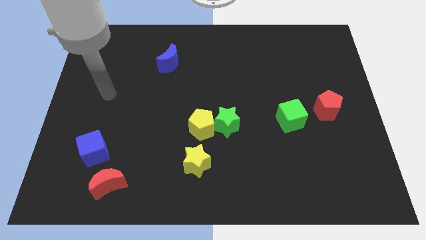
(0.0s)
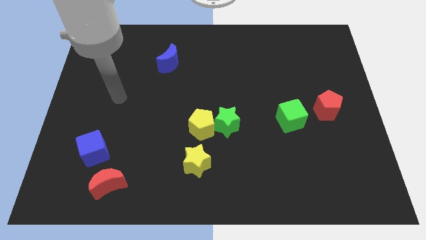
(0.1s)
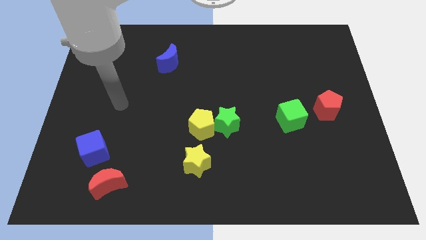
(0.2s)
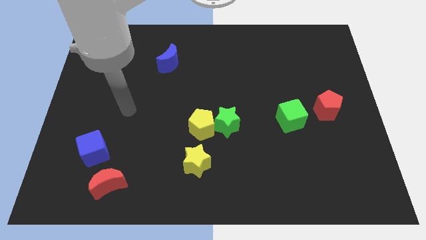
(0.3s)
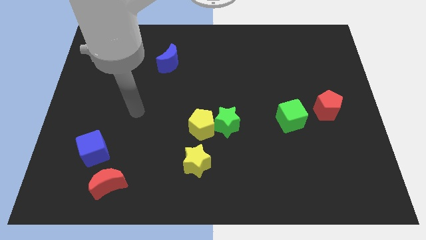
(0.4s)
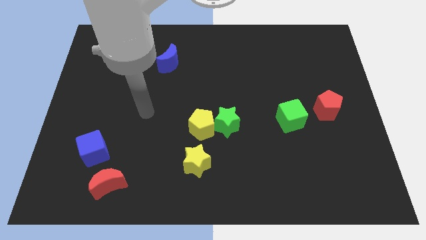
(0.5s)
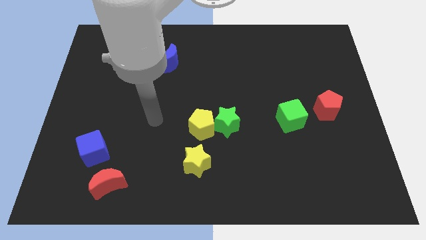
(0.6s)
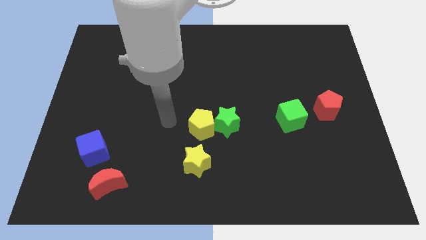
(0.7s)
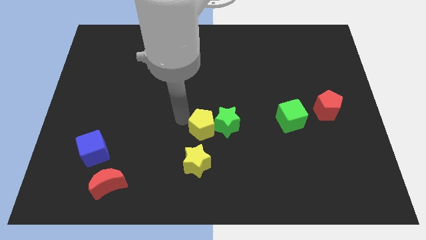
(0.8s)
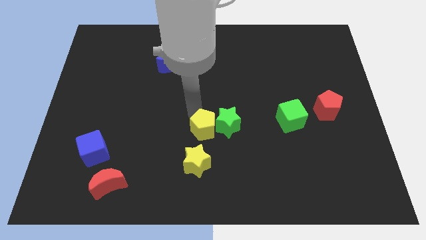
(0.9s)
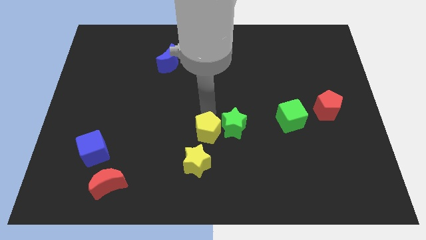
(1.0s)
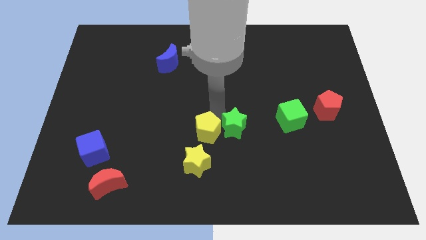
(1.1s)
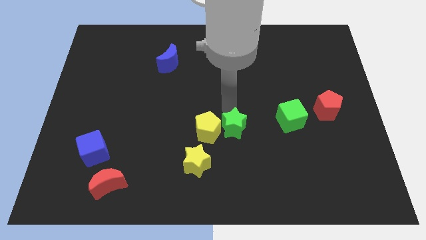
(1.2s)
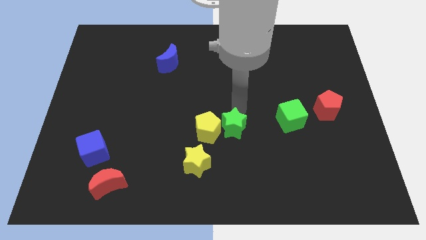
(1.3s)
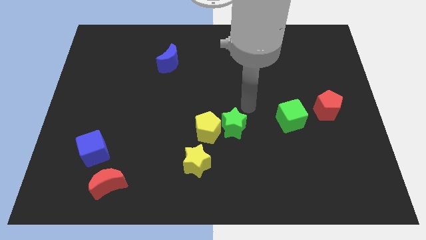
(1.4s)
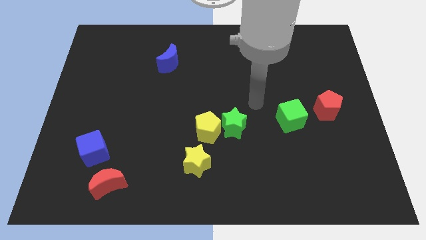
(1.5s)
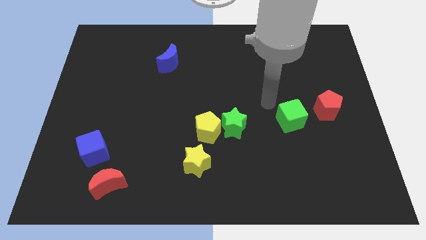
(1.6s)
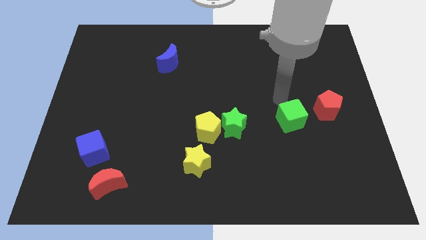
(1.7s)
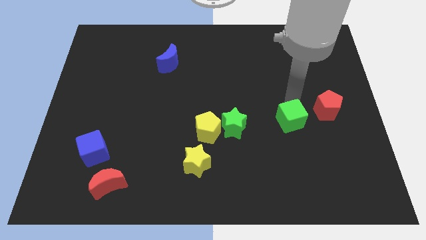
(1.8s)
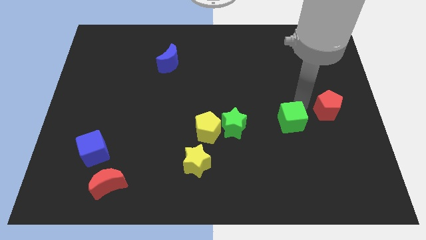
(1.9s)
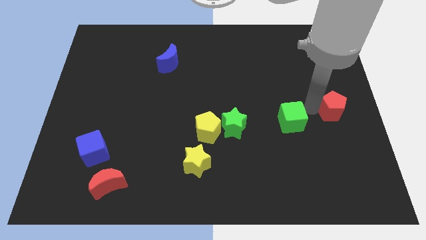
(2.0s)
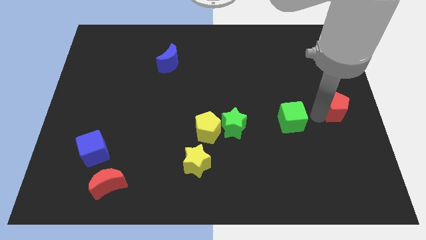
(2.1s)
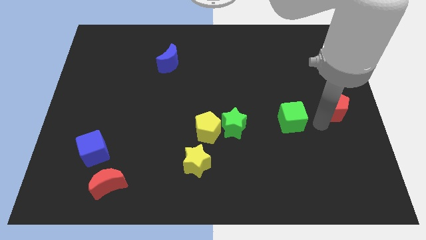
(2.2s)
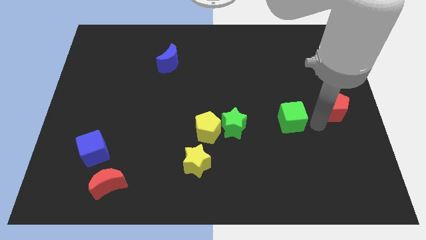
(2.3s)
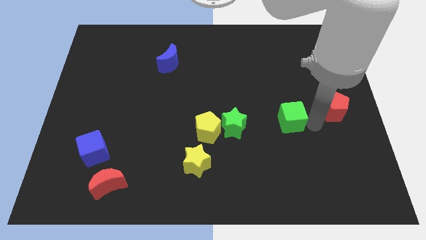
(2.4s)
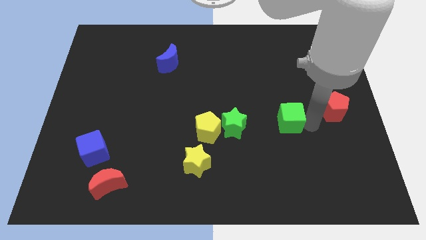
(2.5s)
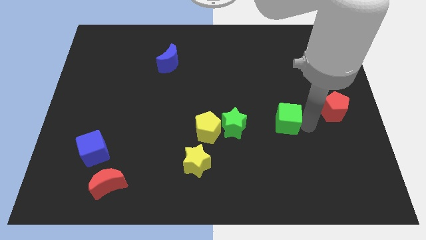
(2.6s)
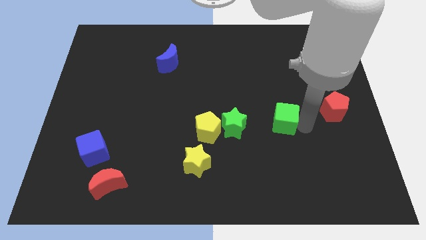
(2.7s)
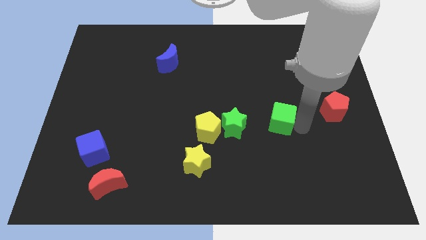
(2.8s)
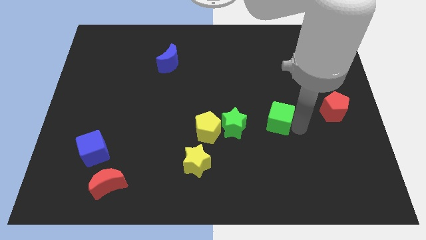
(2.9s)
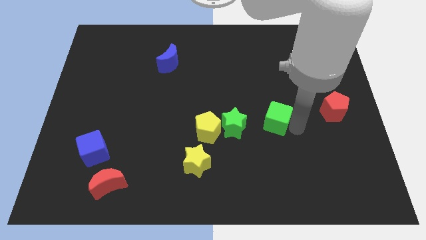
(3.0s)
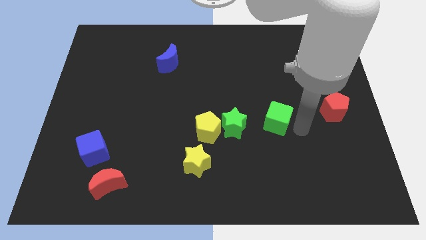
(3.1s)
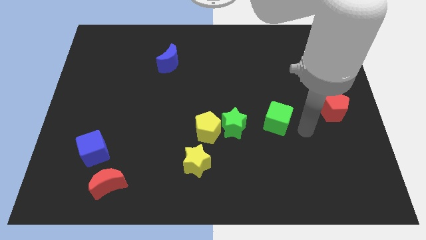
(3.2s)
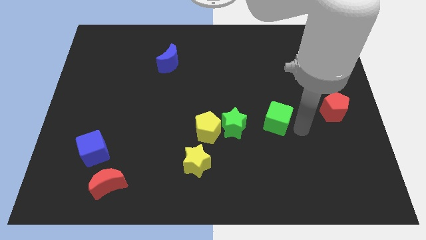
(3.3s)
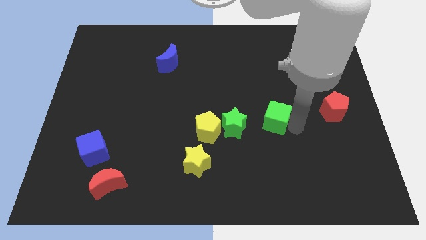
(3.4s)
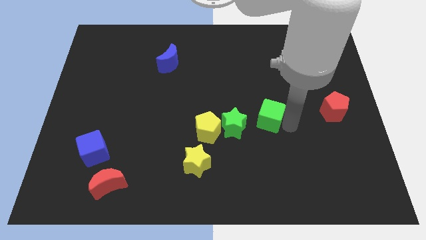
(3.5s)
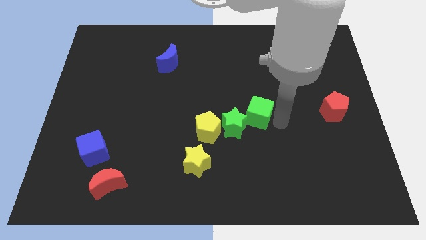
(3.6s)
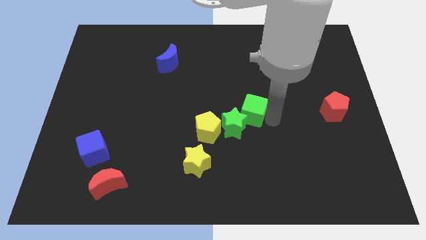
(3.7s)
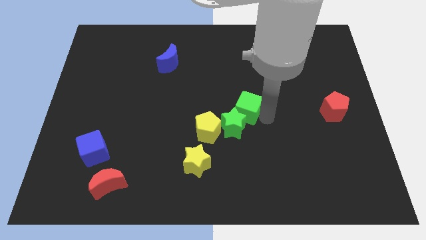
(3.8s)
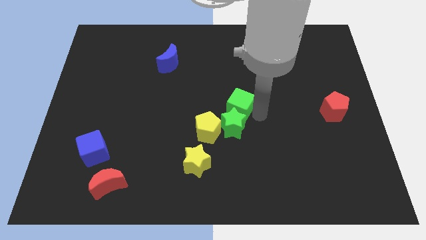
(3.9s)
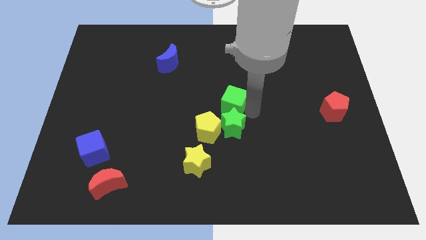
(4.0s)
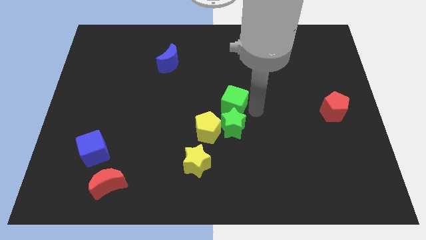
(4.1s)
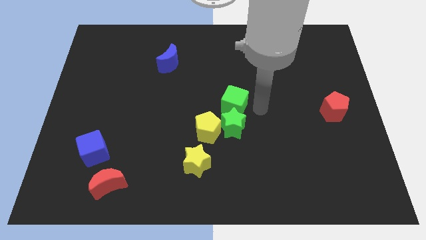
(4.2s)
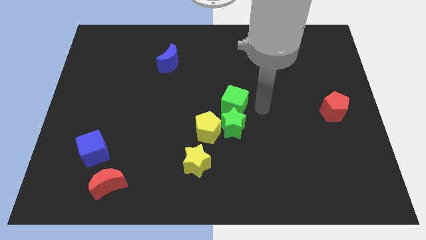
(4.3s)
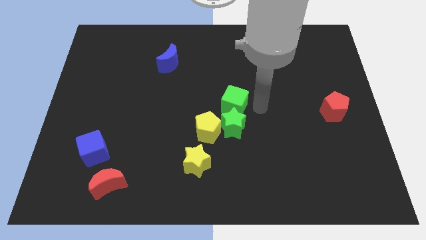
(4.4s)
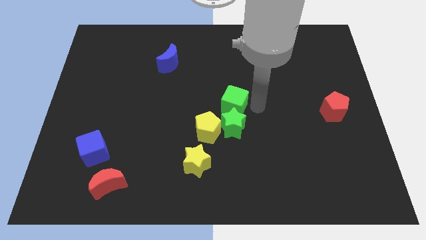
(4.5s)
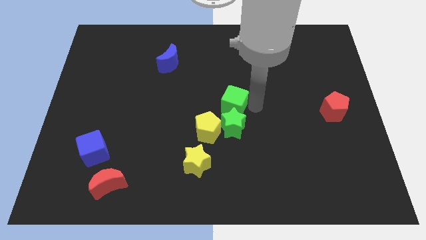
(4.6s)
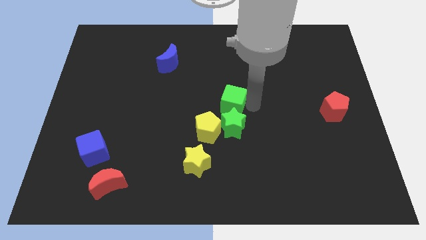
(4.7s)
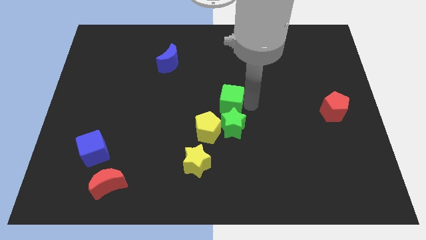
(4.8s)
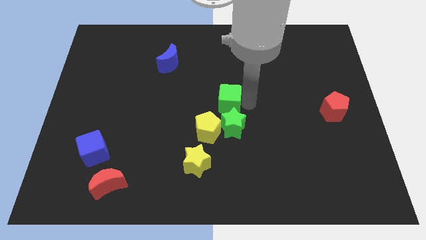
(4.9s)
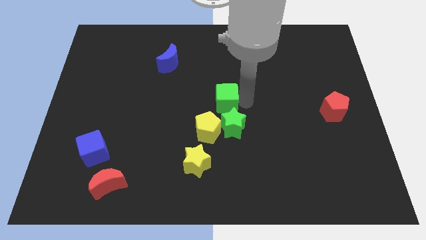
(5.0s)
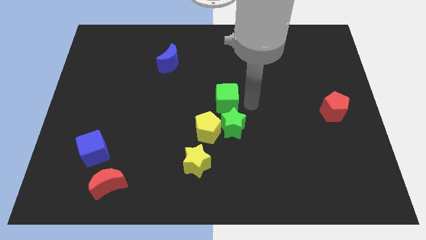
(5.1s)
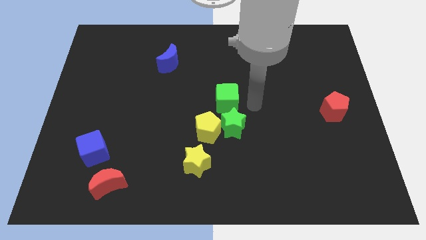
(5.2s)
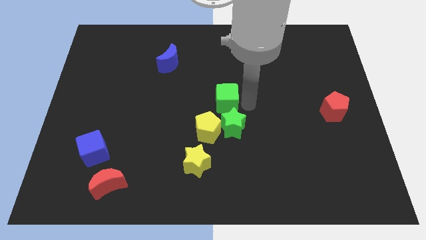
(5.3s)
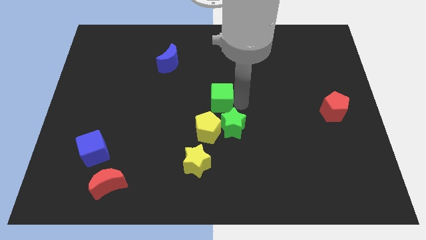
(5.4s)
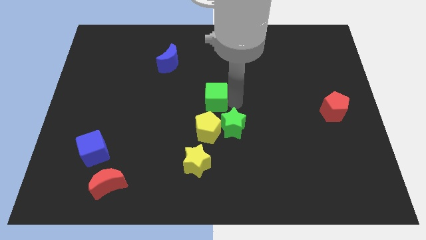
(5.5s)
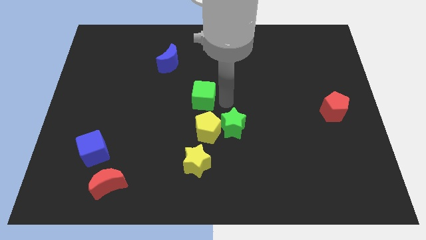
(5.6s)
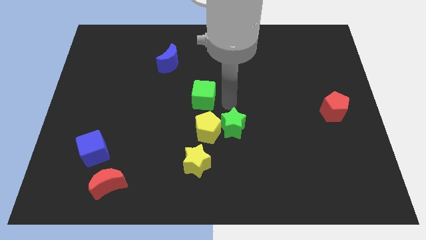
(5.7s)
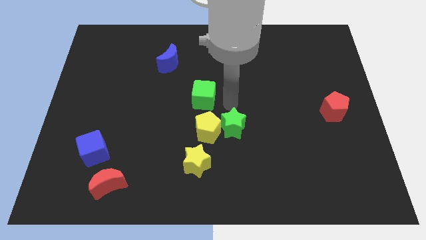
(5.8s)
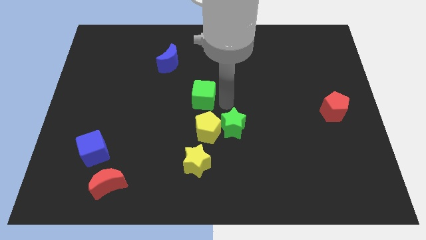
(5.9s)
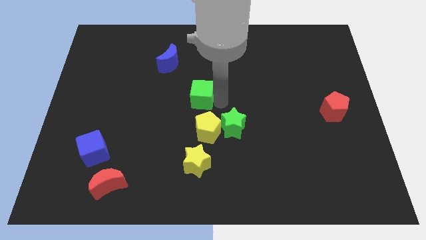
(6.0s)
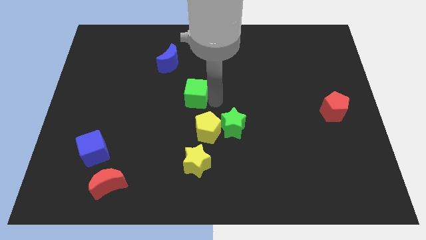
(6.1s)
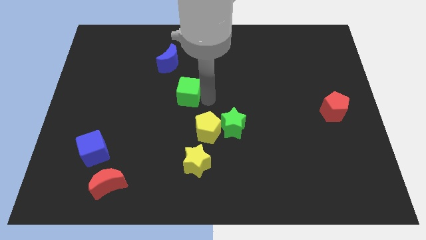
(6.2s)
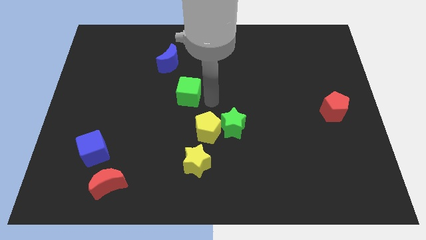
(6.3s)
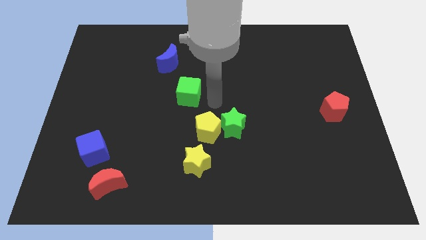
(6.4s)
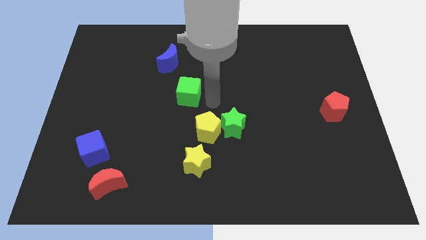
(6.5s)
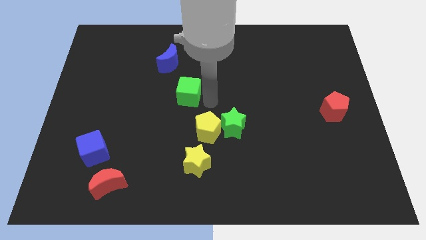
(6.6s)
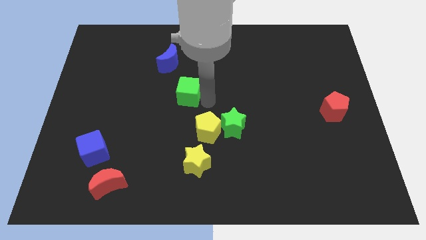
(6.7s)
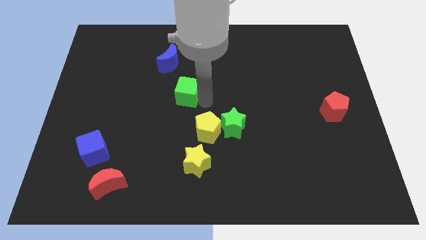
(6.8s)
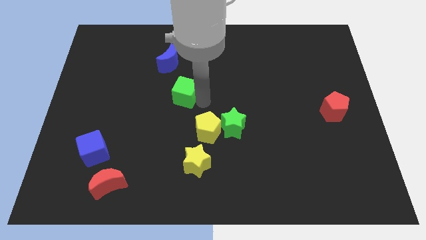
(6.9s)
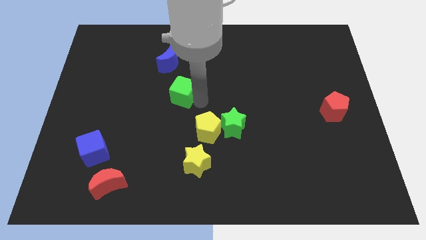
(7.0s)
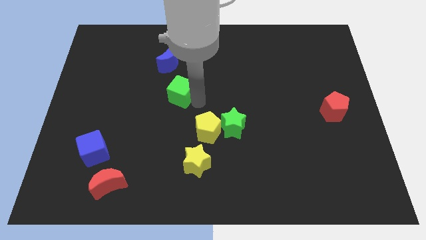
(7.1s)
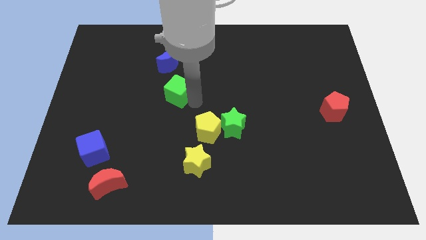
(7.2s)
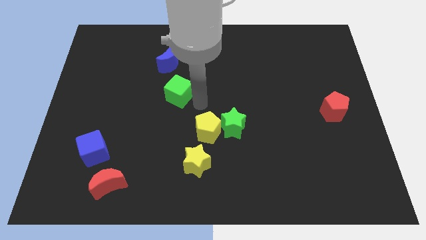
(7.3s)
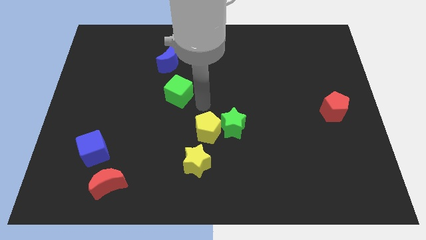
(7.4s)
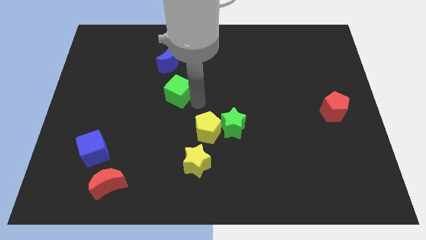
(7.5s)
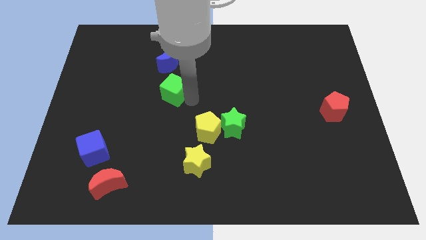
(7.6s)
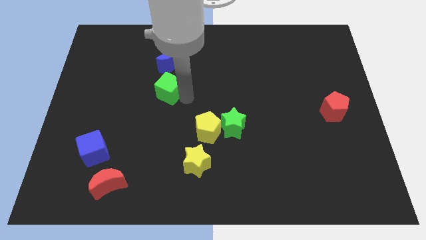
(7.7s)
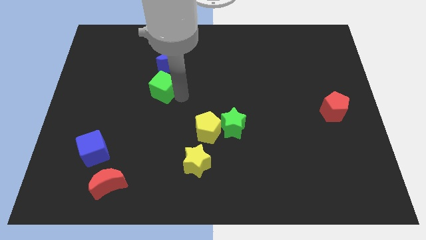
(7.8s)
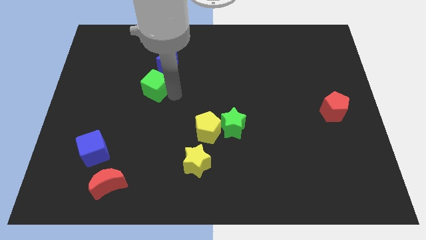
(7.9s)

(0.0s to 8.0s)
put the green cube to the bottom left side of the blue moon
